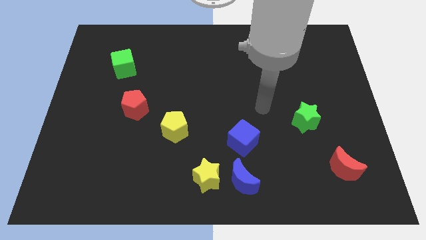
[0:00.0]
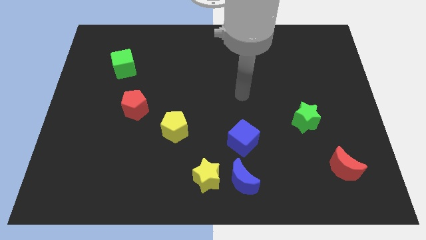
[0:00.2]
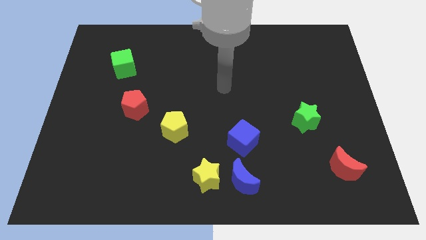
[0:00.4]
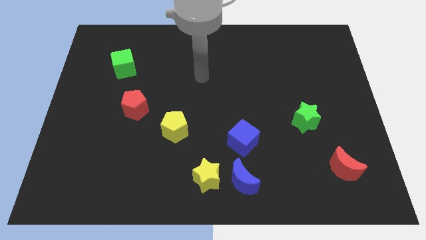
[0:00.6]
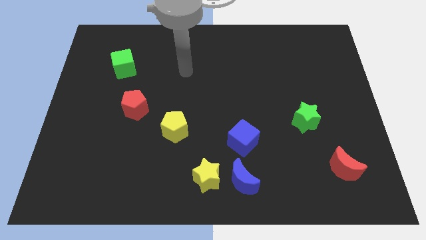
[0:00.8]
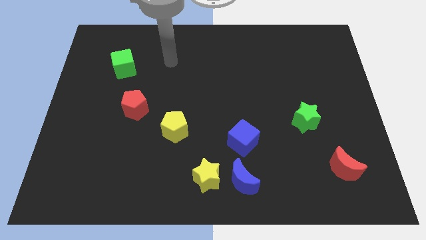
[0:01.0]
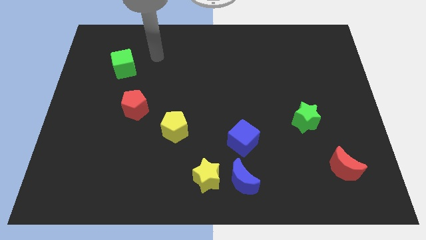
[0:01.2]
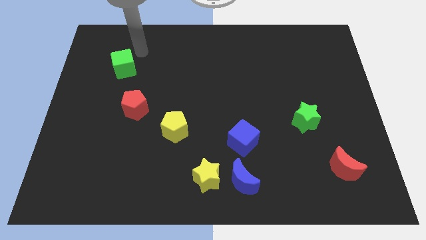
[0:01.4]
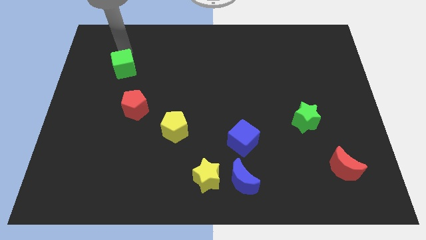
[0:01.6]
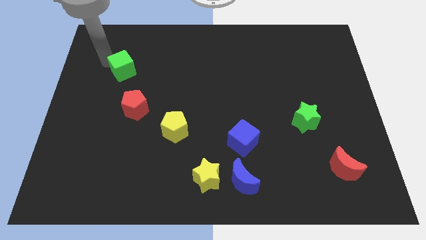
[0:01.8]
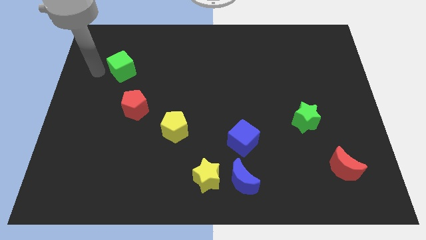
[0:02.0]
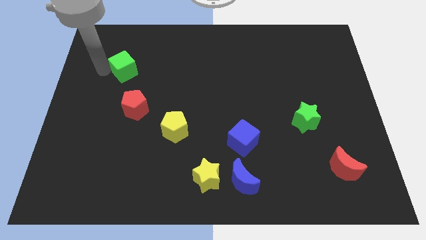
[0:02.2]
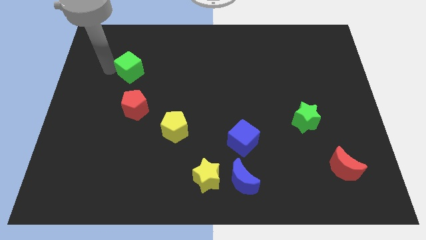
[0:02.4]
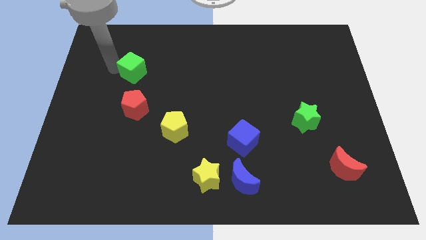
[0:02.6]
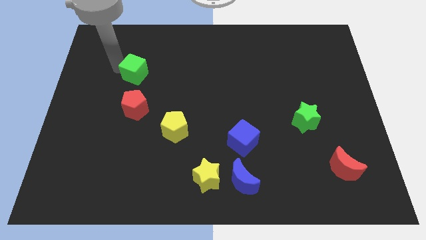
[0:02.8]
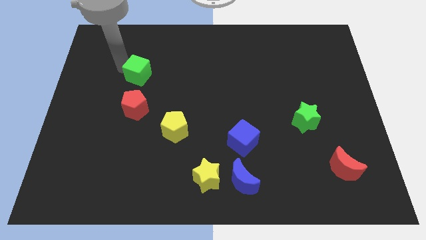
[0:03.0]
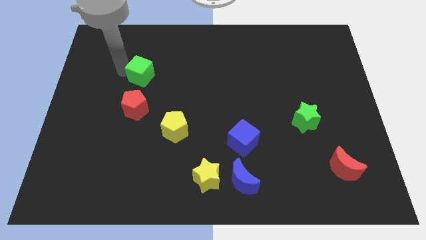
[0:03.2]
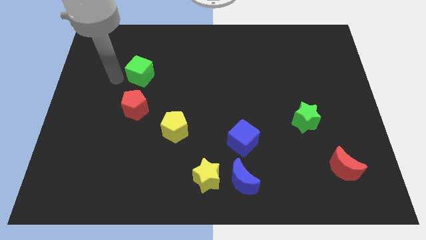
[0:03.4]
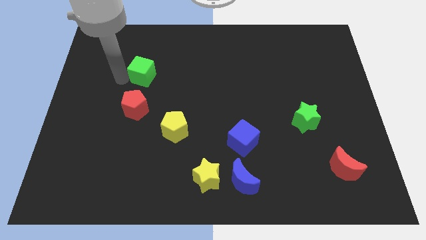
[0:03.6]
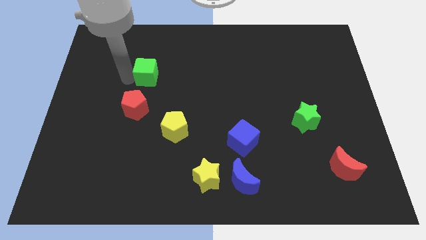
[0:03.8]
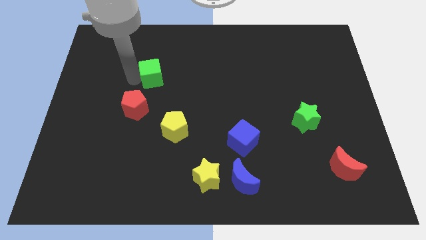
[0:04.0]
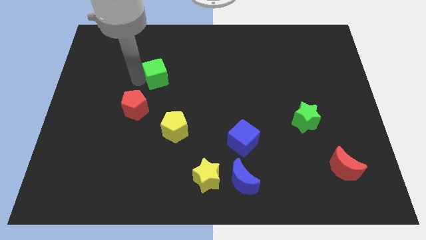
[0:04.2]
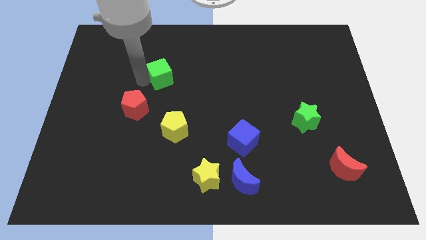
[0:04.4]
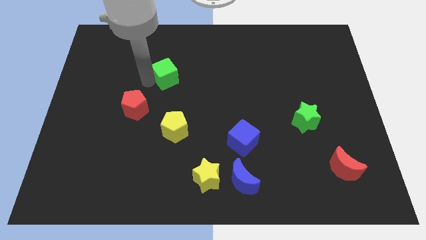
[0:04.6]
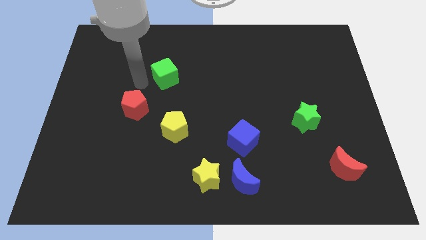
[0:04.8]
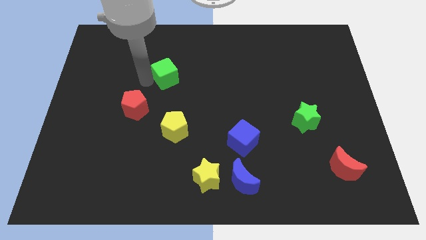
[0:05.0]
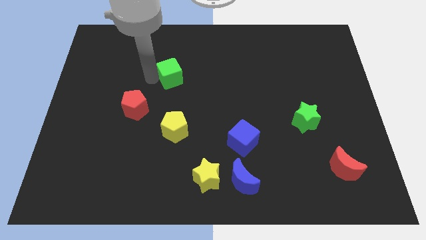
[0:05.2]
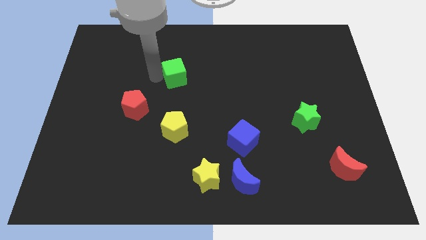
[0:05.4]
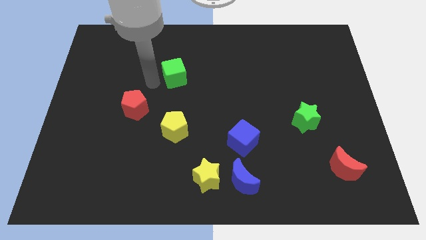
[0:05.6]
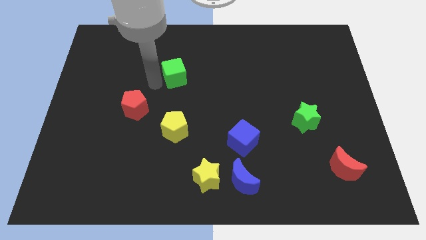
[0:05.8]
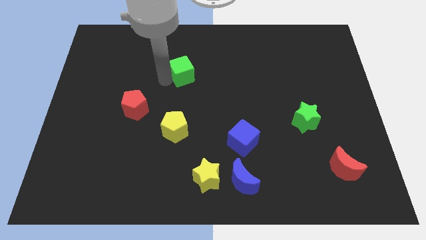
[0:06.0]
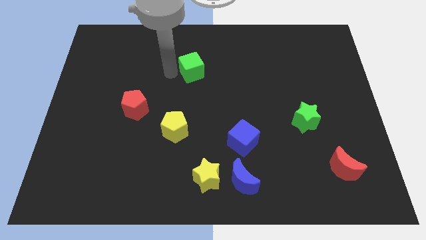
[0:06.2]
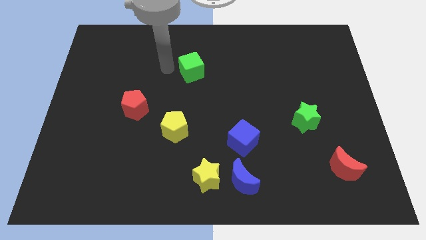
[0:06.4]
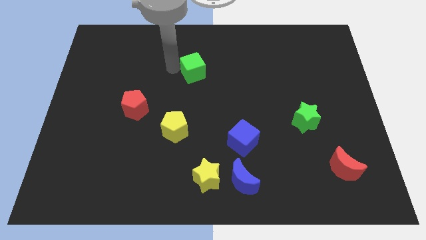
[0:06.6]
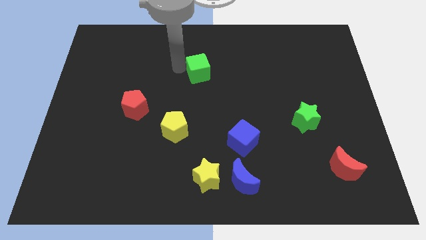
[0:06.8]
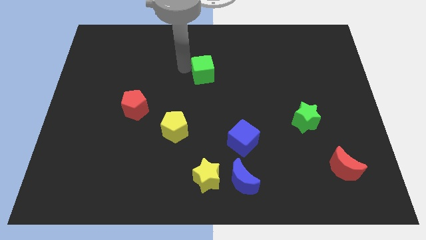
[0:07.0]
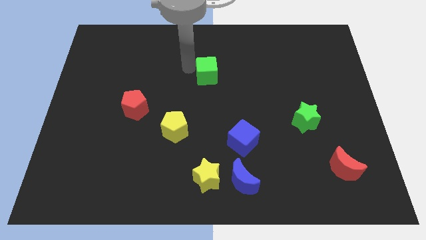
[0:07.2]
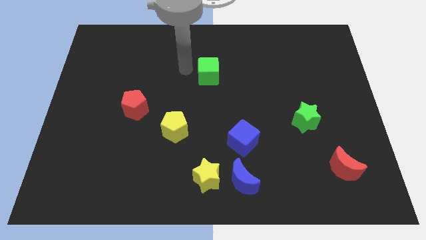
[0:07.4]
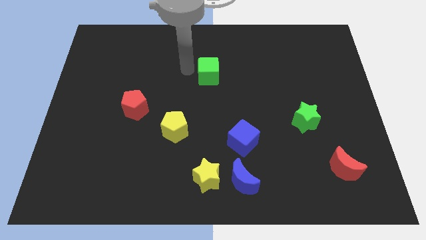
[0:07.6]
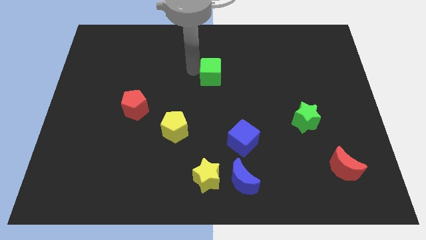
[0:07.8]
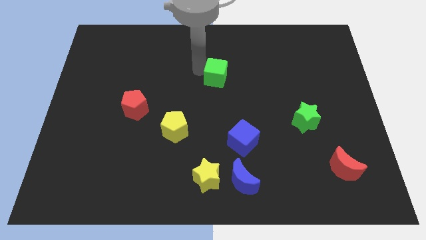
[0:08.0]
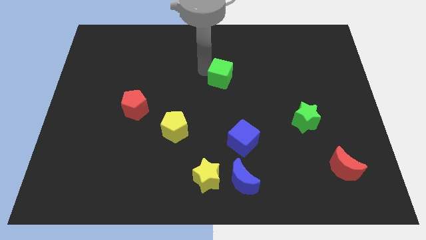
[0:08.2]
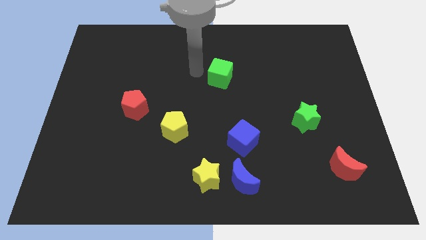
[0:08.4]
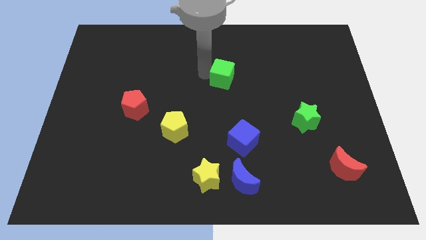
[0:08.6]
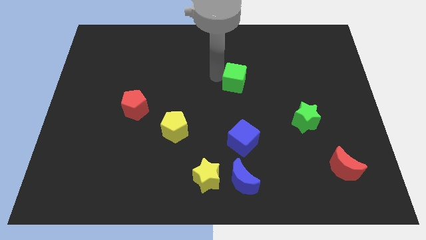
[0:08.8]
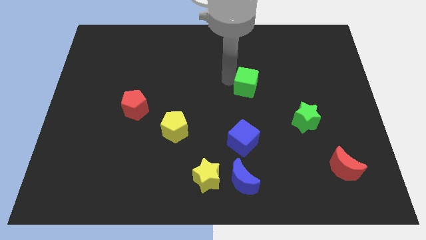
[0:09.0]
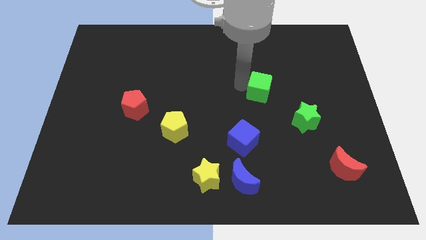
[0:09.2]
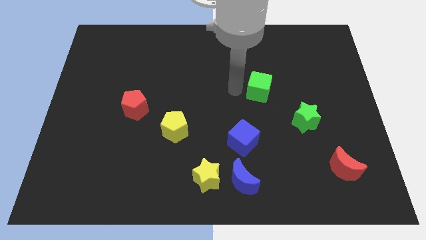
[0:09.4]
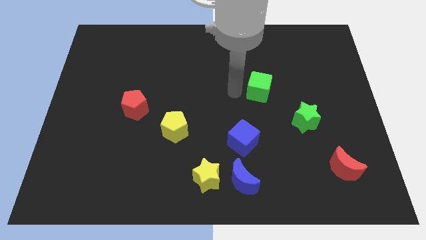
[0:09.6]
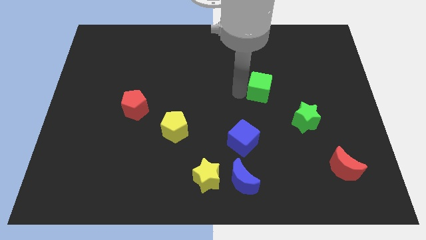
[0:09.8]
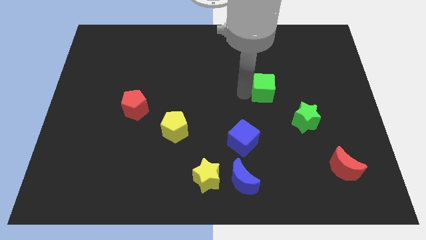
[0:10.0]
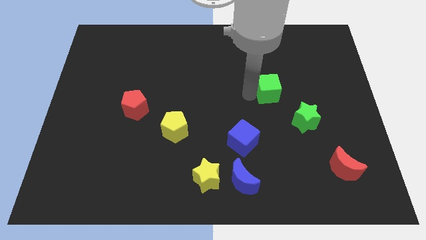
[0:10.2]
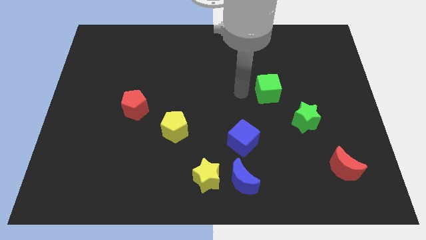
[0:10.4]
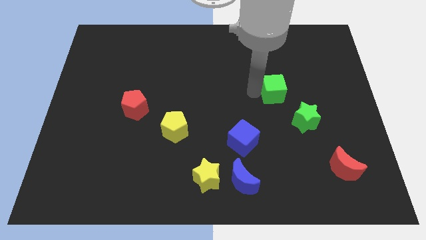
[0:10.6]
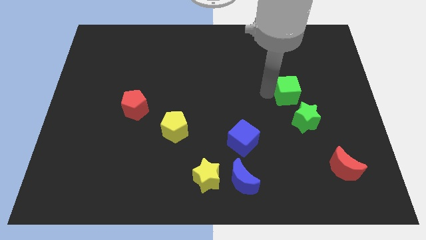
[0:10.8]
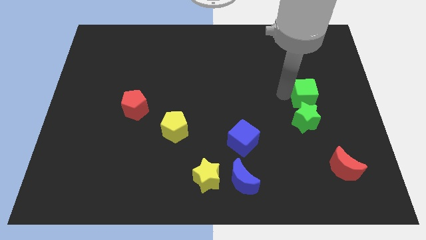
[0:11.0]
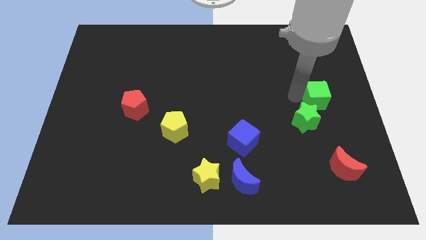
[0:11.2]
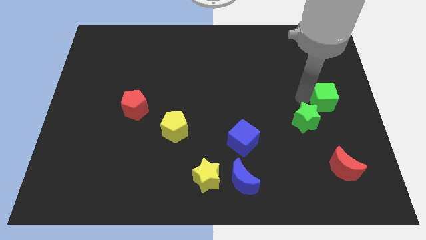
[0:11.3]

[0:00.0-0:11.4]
slide the green cube to the right side

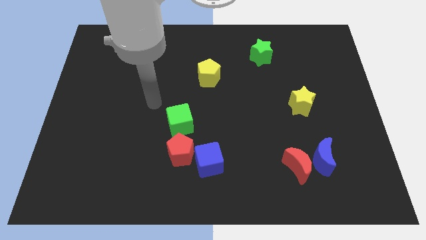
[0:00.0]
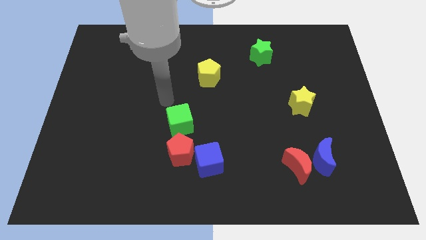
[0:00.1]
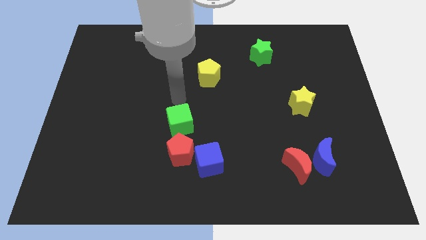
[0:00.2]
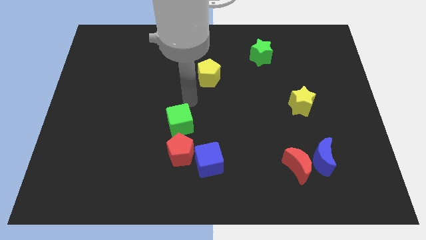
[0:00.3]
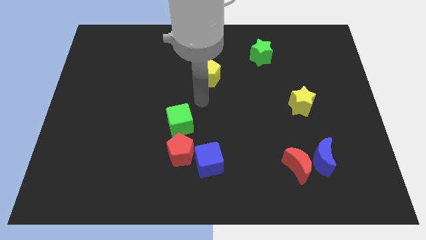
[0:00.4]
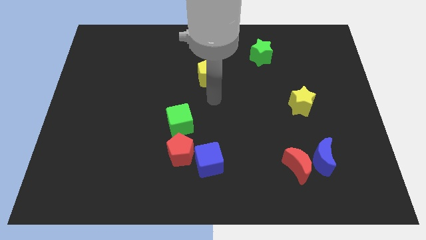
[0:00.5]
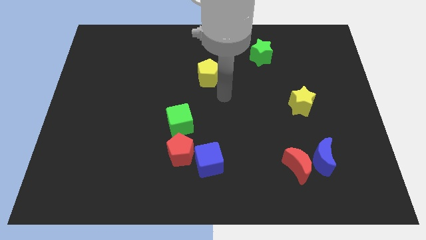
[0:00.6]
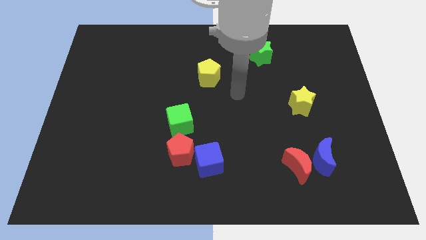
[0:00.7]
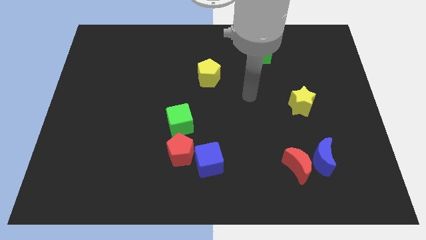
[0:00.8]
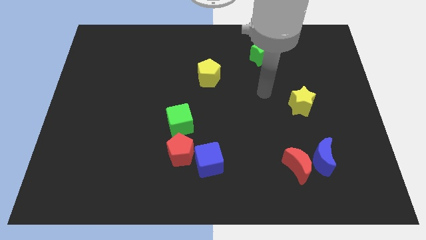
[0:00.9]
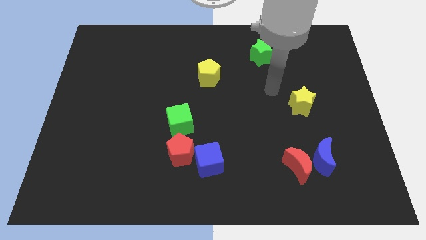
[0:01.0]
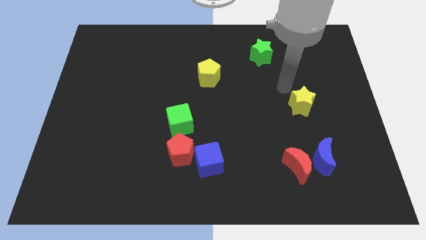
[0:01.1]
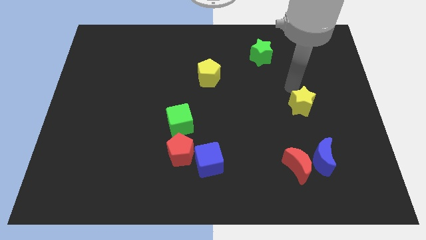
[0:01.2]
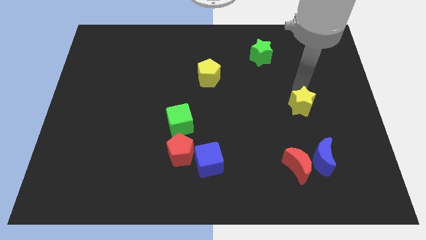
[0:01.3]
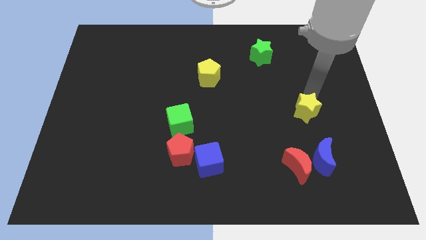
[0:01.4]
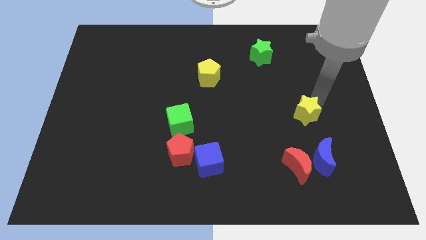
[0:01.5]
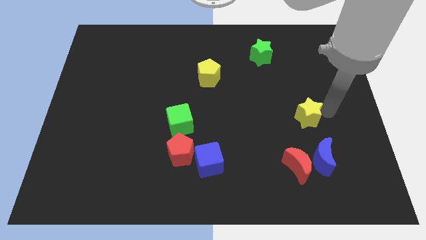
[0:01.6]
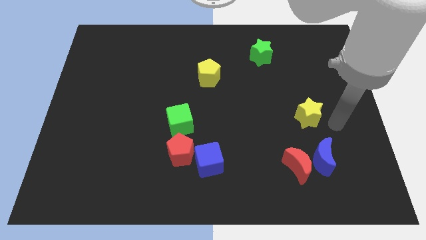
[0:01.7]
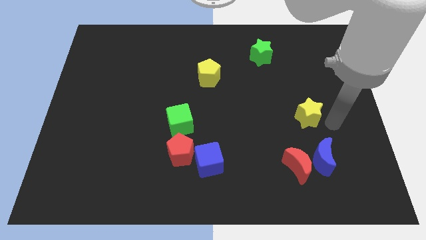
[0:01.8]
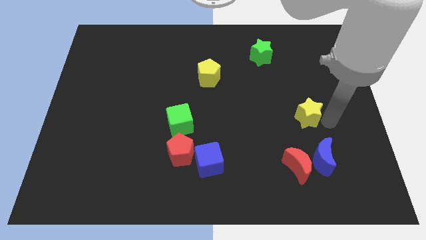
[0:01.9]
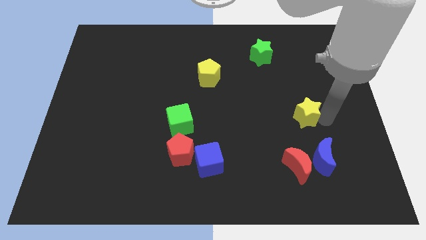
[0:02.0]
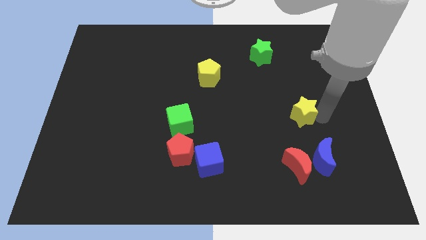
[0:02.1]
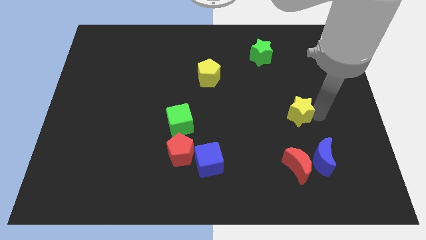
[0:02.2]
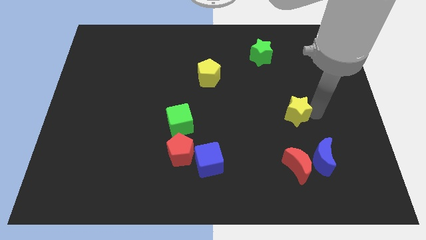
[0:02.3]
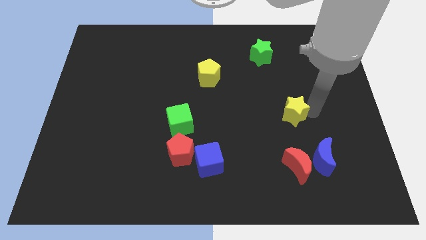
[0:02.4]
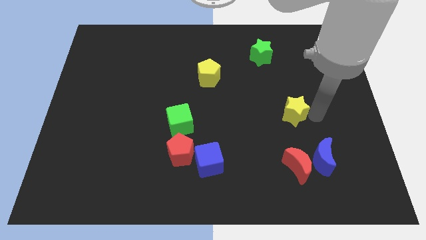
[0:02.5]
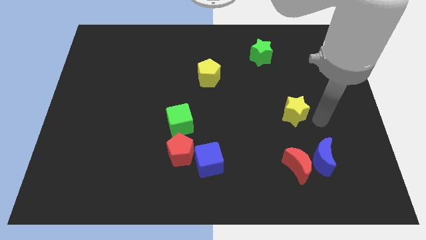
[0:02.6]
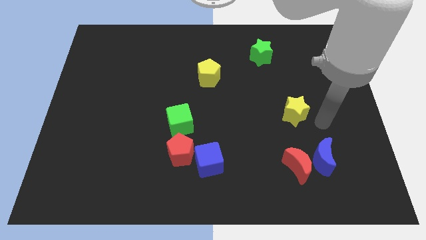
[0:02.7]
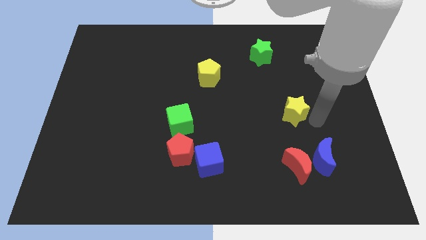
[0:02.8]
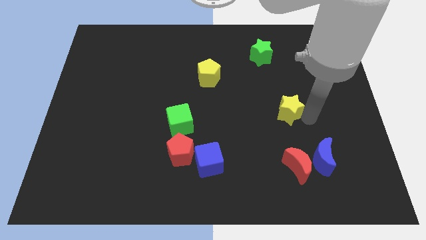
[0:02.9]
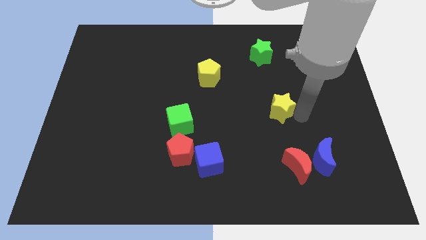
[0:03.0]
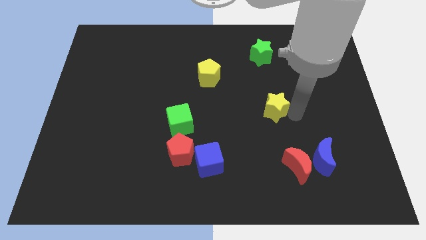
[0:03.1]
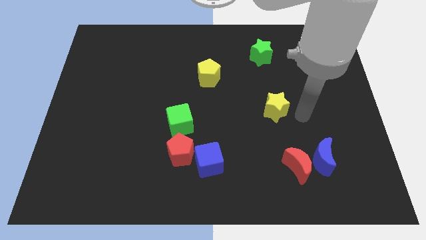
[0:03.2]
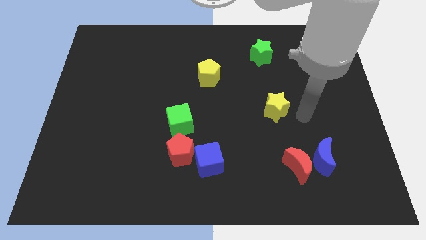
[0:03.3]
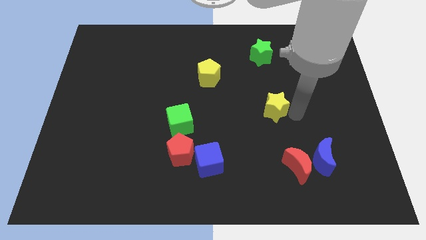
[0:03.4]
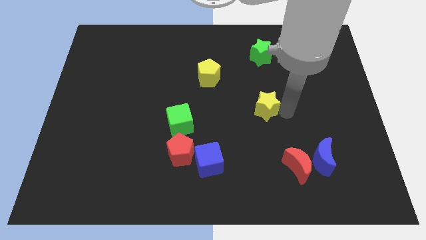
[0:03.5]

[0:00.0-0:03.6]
put the yellow star to the middle
